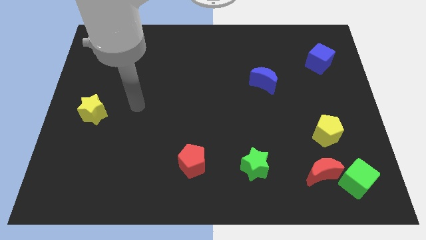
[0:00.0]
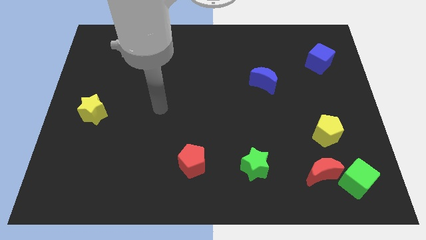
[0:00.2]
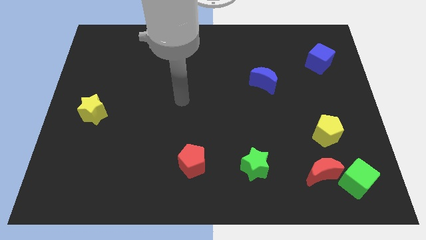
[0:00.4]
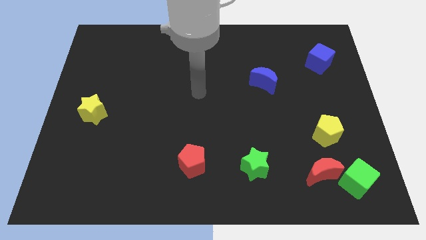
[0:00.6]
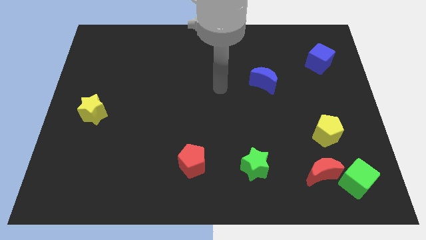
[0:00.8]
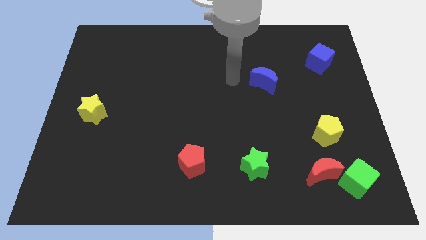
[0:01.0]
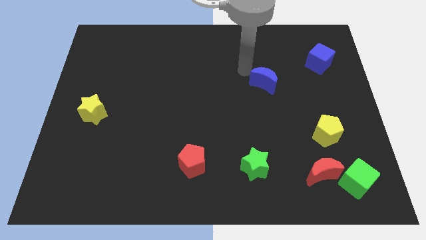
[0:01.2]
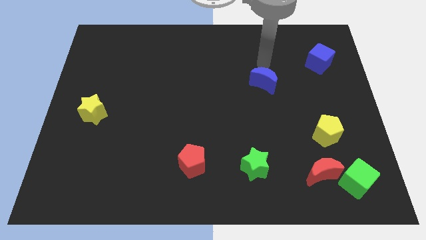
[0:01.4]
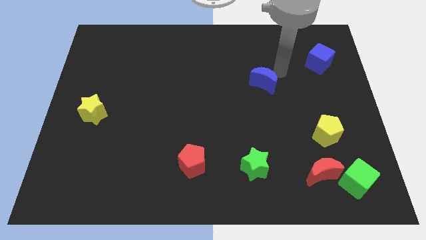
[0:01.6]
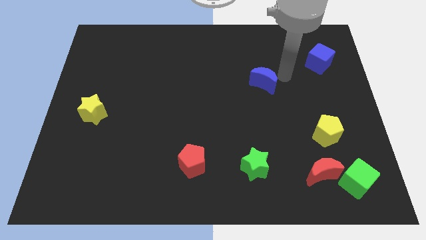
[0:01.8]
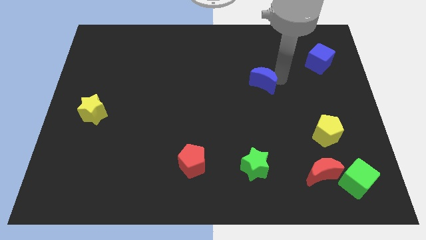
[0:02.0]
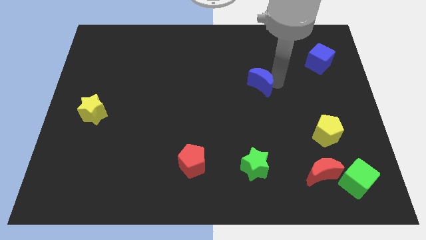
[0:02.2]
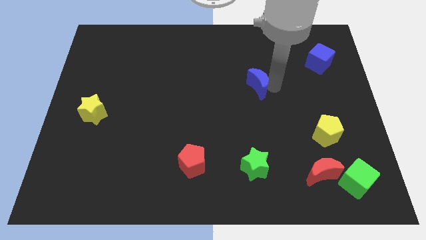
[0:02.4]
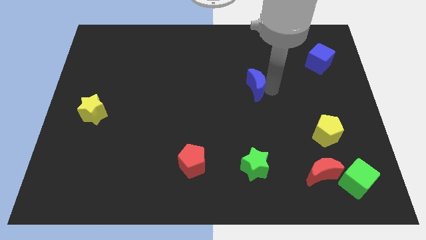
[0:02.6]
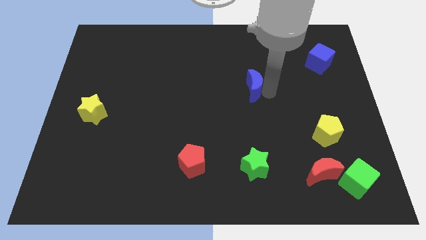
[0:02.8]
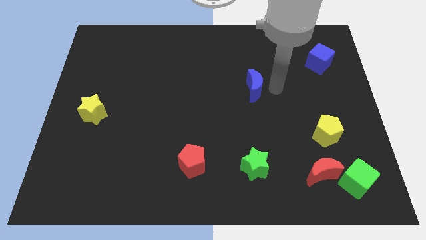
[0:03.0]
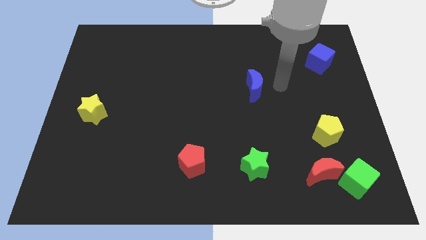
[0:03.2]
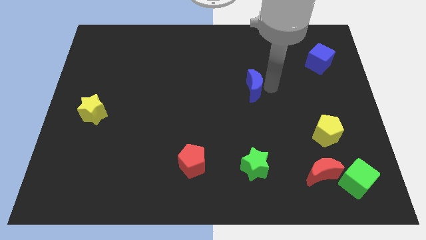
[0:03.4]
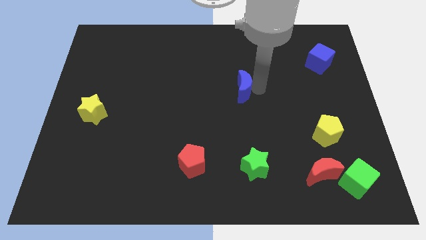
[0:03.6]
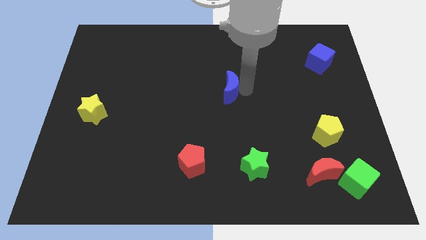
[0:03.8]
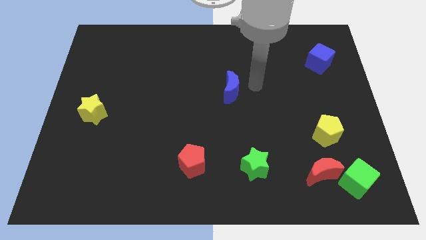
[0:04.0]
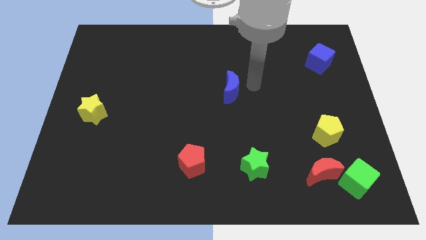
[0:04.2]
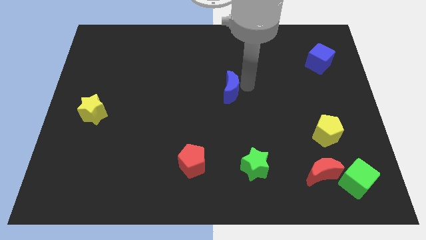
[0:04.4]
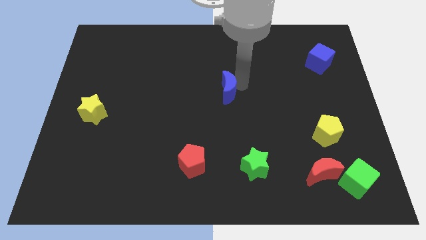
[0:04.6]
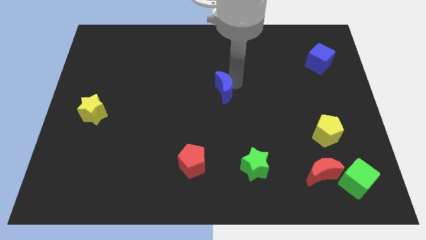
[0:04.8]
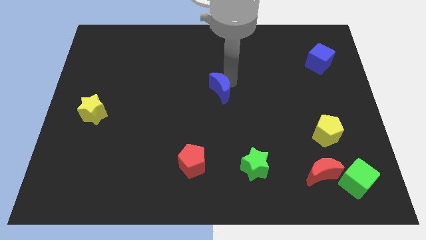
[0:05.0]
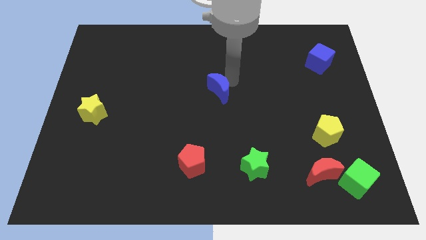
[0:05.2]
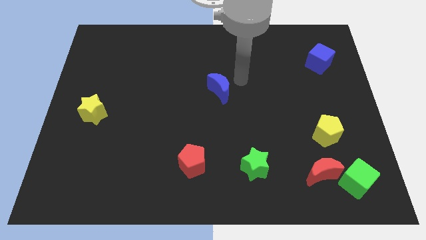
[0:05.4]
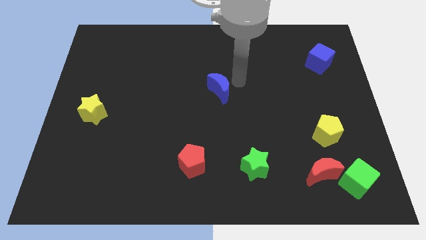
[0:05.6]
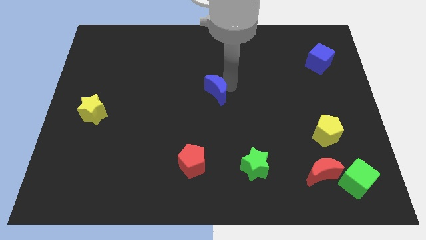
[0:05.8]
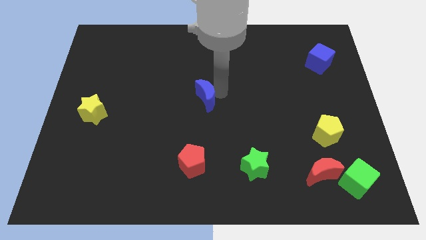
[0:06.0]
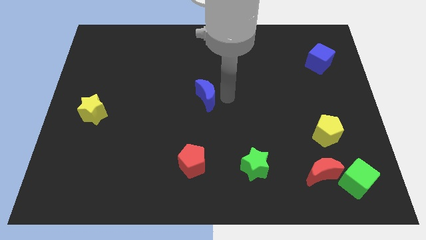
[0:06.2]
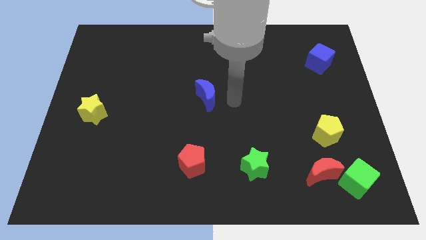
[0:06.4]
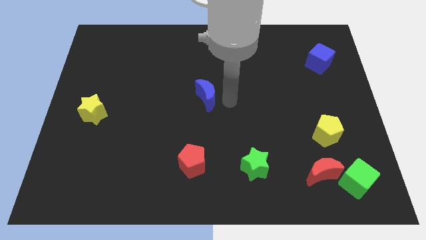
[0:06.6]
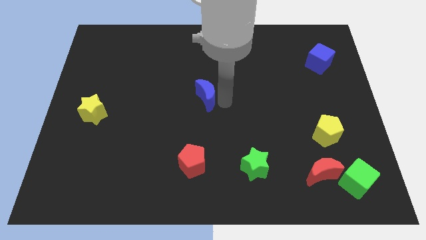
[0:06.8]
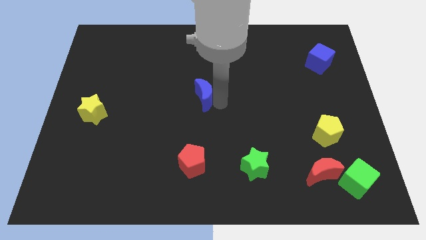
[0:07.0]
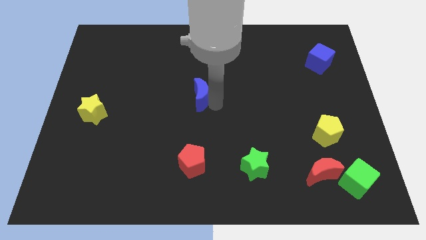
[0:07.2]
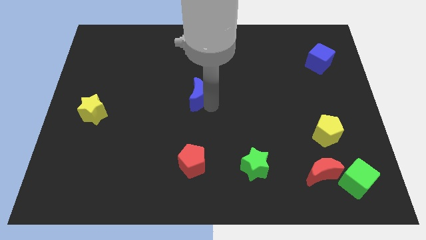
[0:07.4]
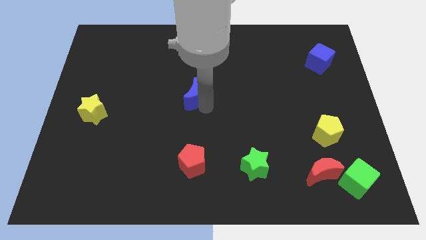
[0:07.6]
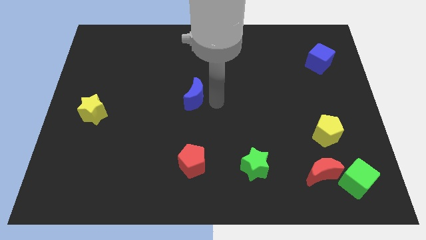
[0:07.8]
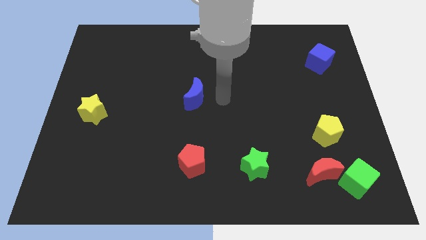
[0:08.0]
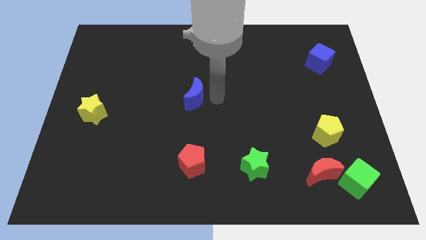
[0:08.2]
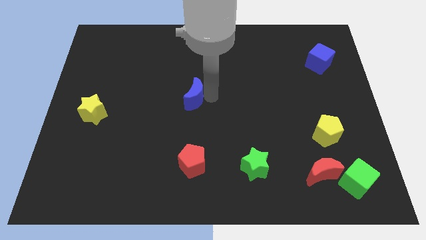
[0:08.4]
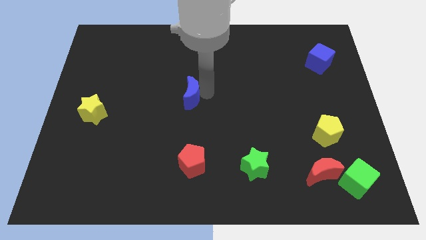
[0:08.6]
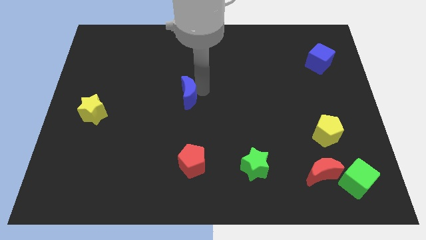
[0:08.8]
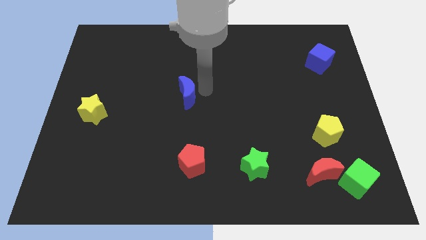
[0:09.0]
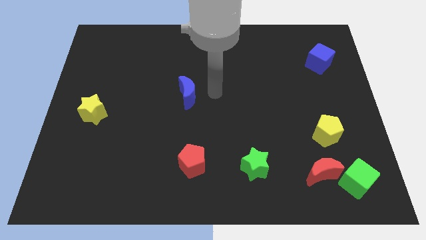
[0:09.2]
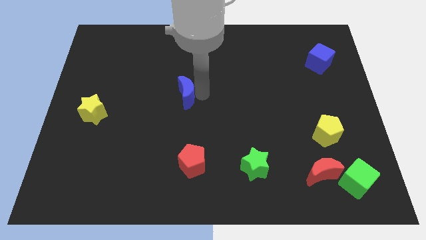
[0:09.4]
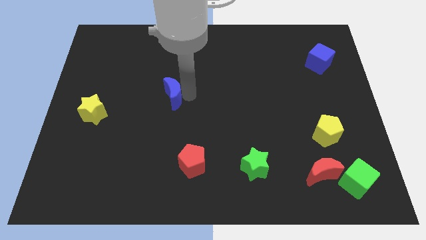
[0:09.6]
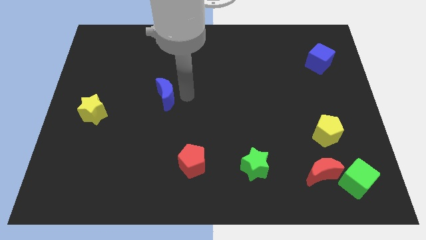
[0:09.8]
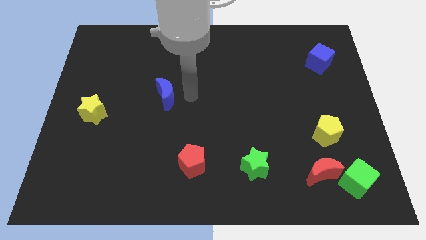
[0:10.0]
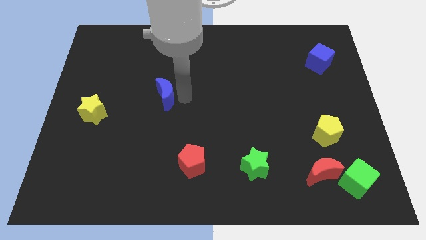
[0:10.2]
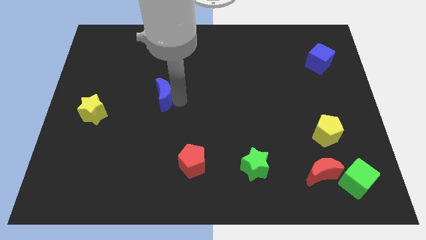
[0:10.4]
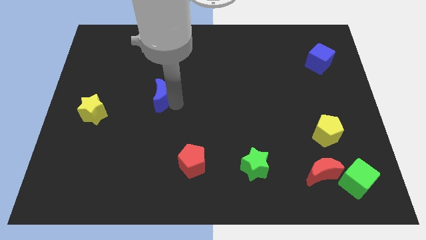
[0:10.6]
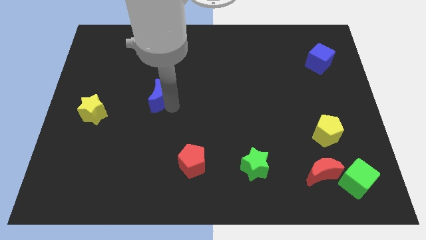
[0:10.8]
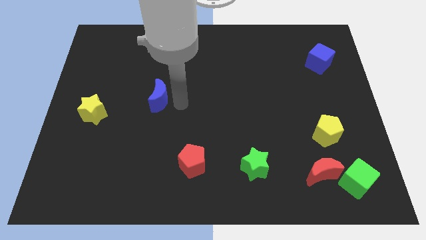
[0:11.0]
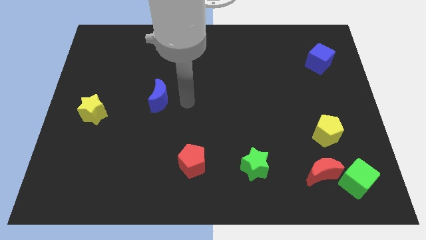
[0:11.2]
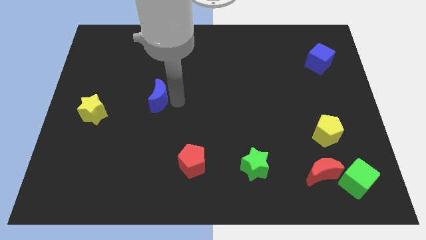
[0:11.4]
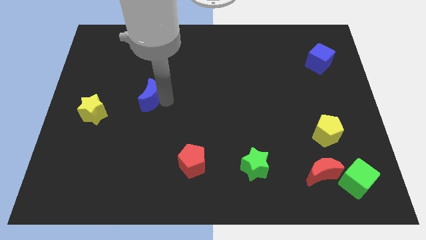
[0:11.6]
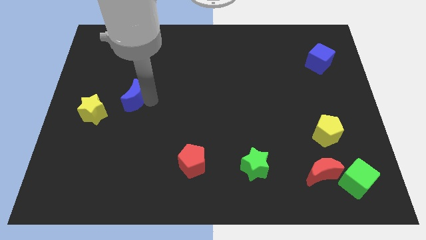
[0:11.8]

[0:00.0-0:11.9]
push the blue moon to the top right side of the yellow star
